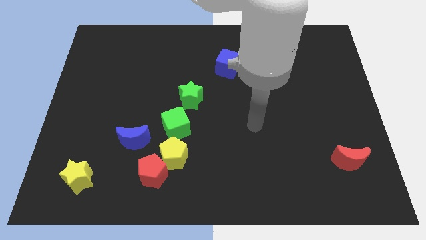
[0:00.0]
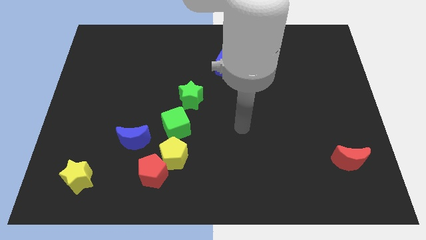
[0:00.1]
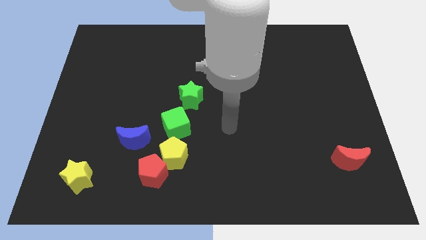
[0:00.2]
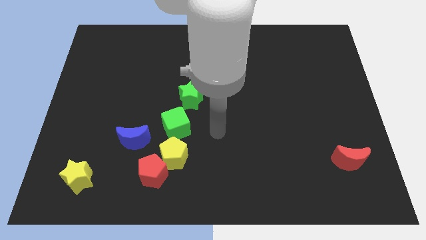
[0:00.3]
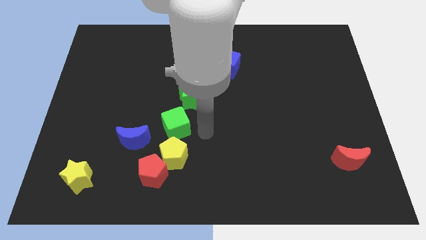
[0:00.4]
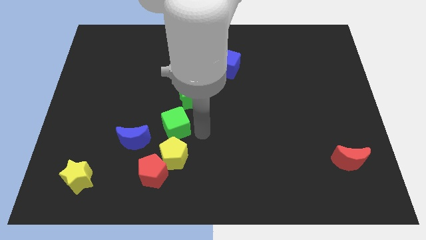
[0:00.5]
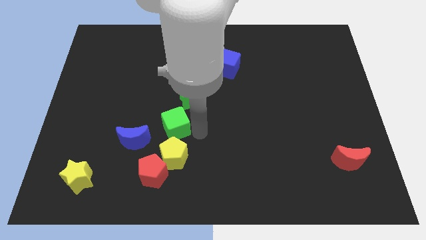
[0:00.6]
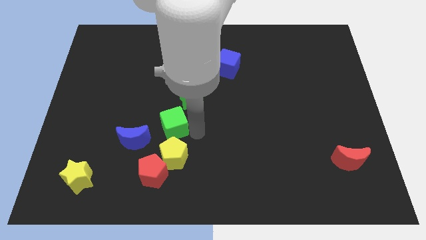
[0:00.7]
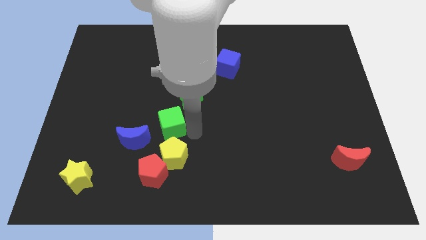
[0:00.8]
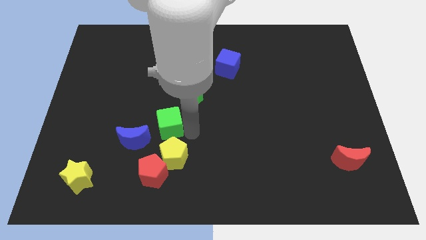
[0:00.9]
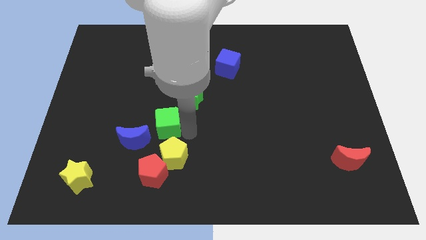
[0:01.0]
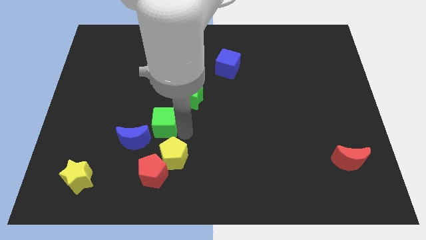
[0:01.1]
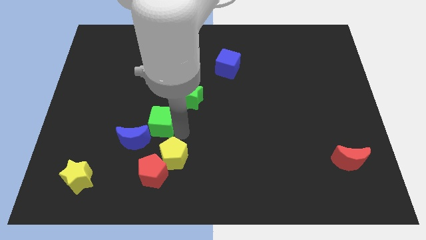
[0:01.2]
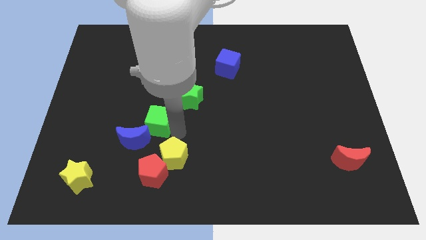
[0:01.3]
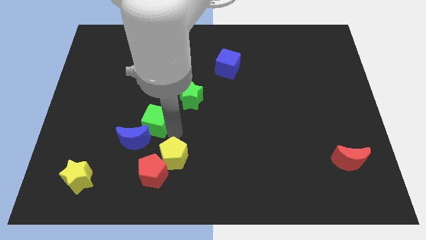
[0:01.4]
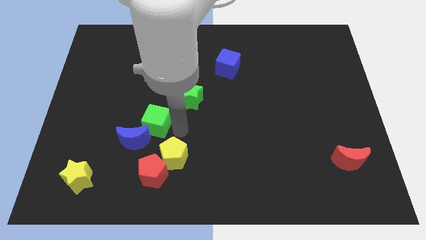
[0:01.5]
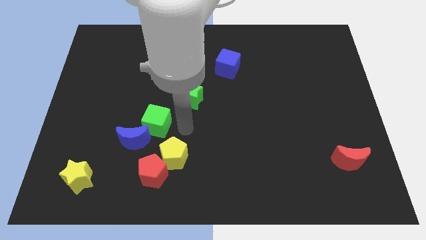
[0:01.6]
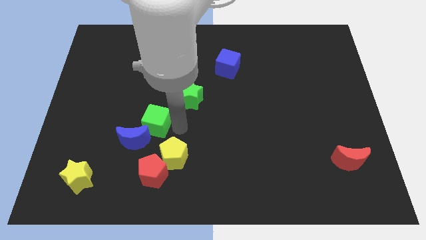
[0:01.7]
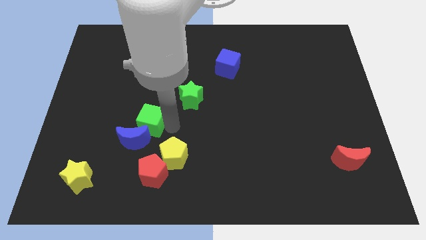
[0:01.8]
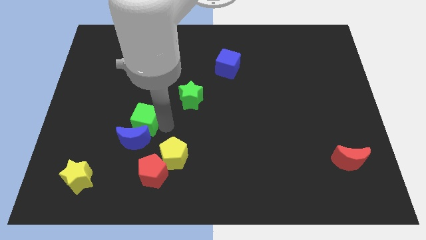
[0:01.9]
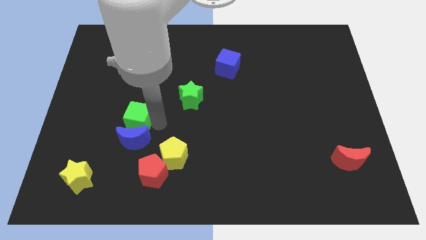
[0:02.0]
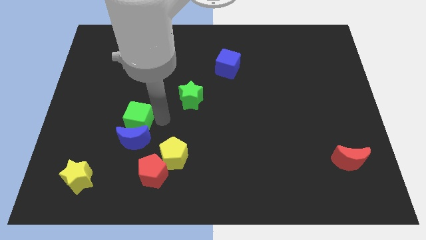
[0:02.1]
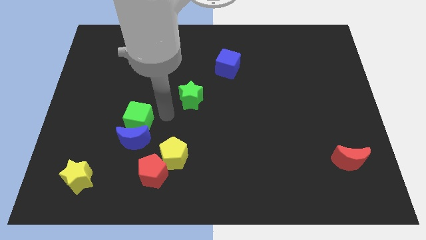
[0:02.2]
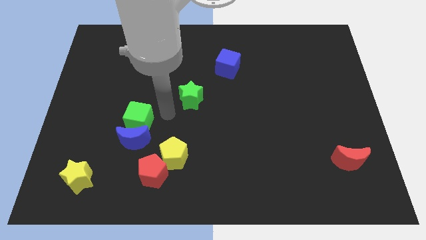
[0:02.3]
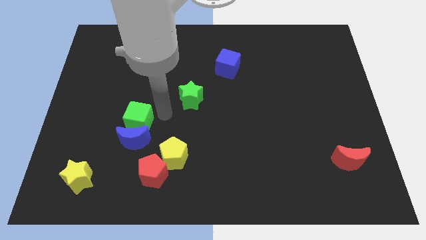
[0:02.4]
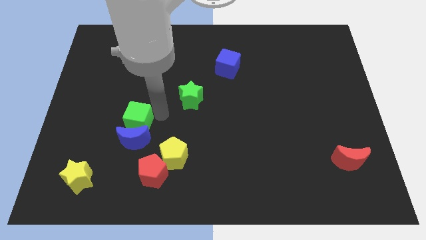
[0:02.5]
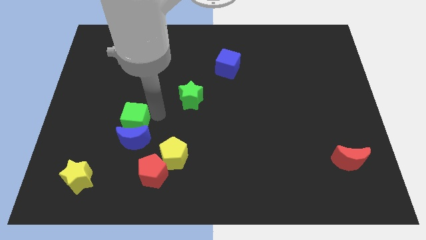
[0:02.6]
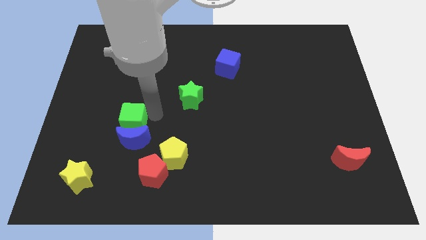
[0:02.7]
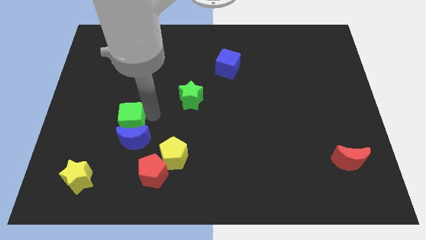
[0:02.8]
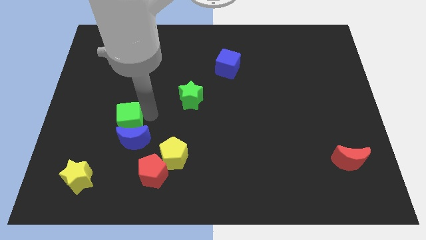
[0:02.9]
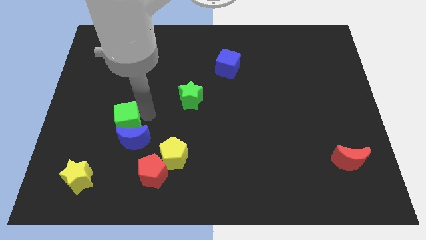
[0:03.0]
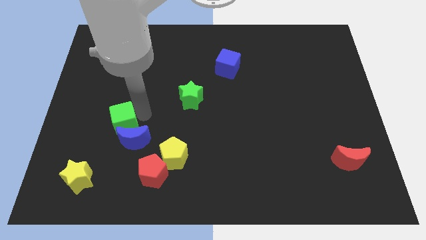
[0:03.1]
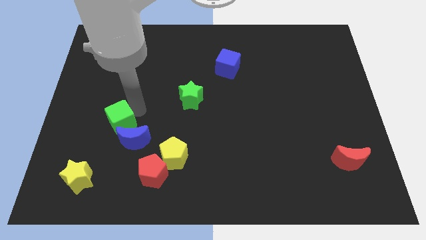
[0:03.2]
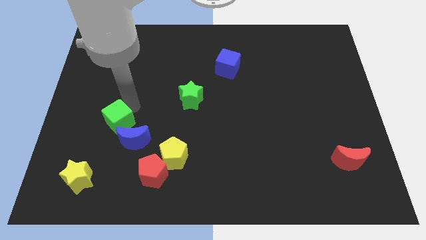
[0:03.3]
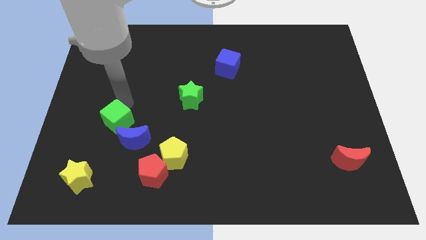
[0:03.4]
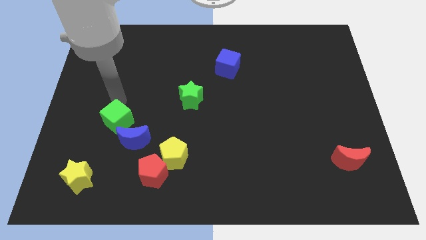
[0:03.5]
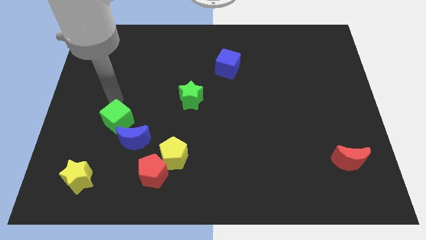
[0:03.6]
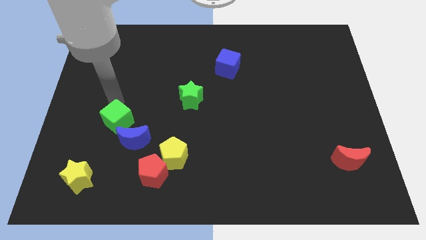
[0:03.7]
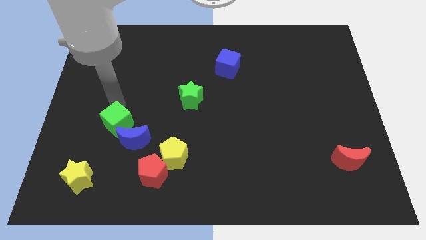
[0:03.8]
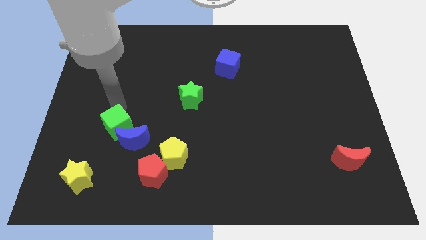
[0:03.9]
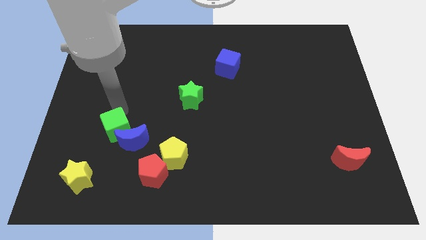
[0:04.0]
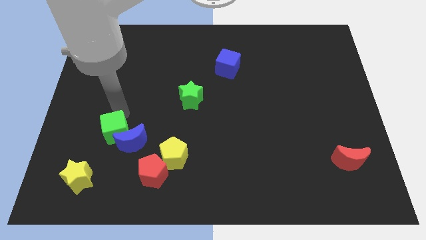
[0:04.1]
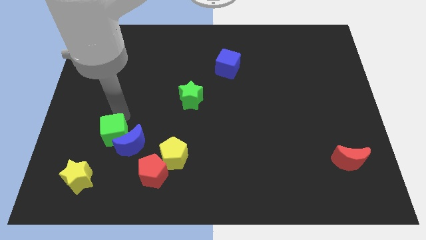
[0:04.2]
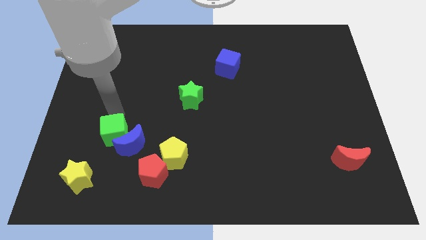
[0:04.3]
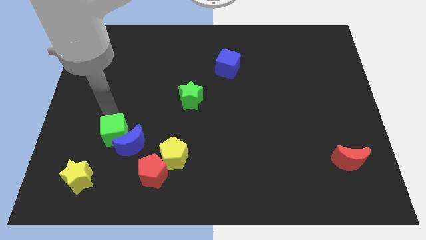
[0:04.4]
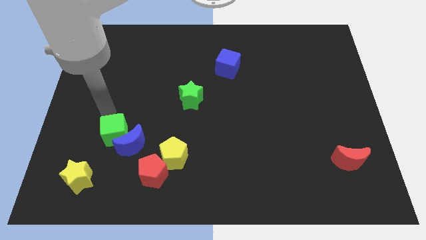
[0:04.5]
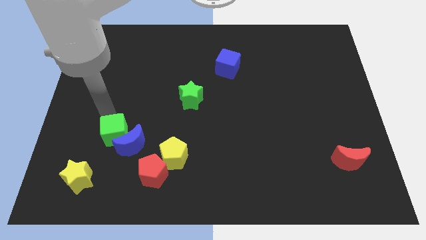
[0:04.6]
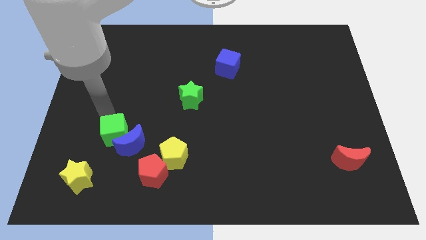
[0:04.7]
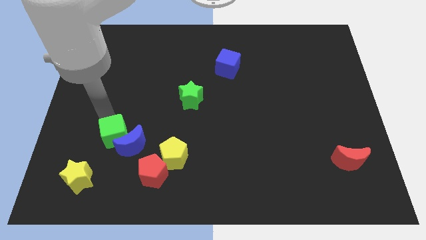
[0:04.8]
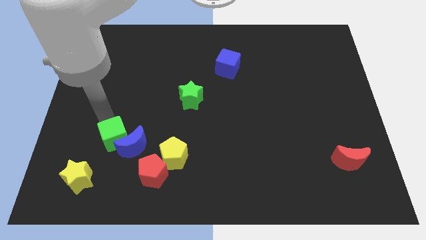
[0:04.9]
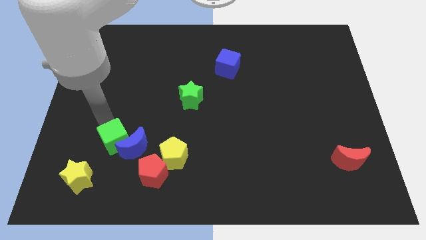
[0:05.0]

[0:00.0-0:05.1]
push the green cube left of the yellow pentagon

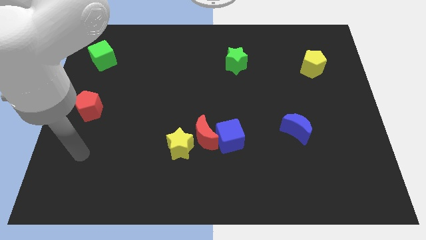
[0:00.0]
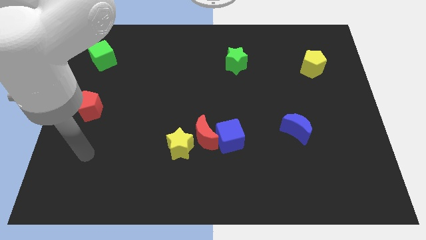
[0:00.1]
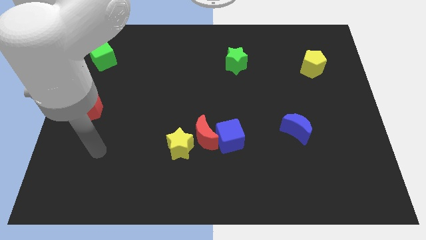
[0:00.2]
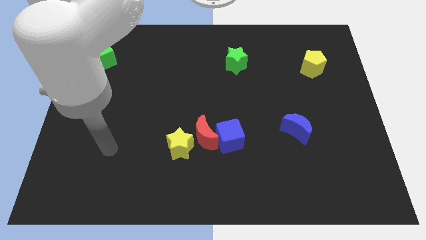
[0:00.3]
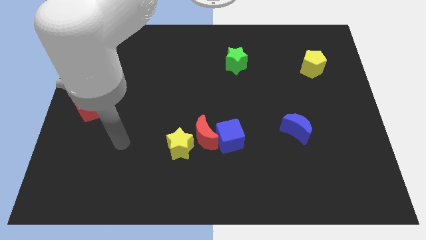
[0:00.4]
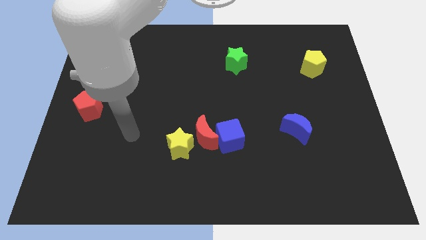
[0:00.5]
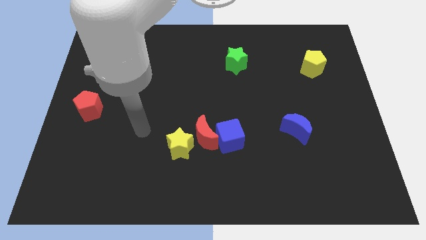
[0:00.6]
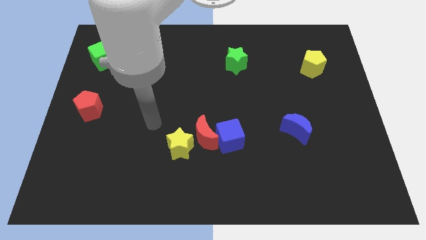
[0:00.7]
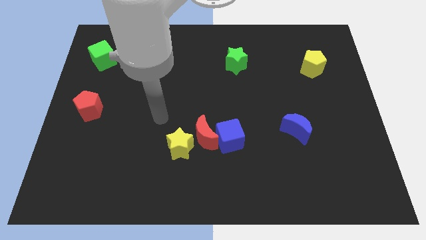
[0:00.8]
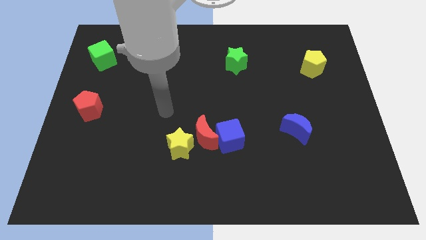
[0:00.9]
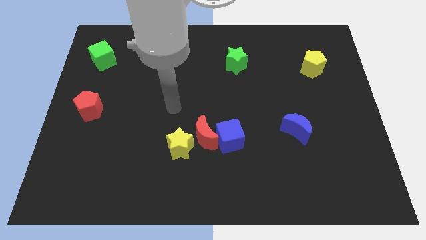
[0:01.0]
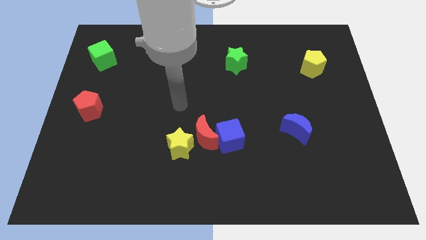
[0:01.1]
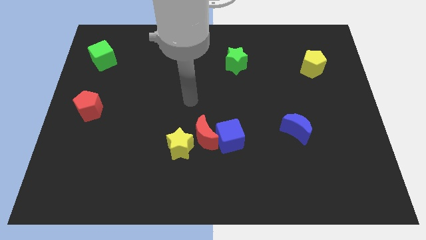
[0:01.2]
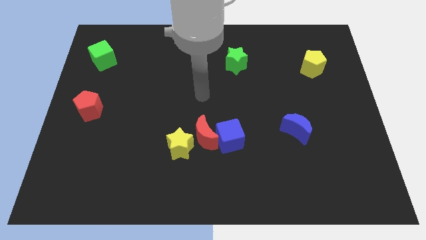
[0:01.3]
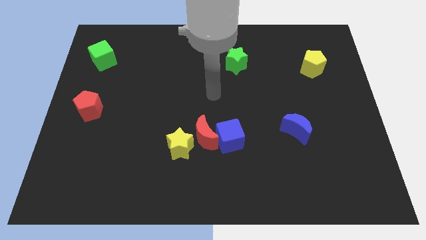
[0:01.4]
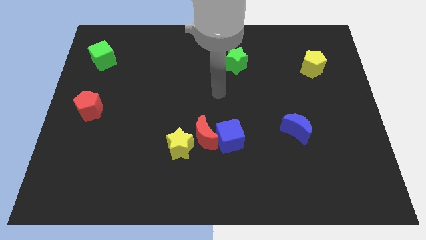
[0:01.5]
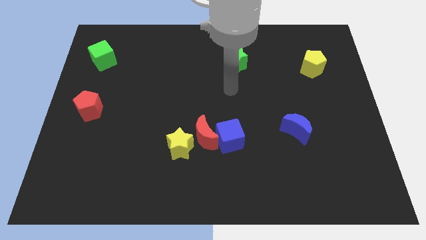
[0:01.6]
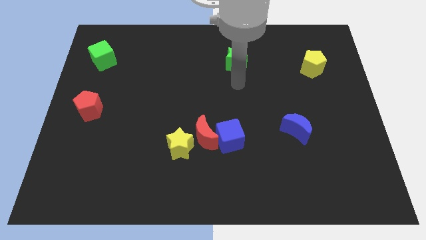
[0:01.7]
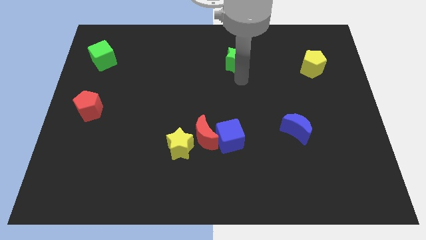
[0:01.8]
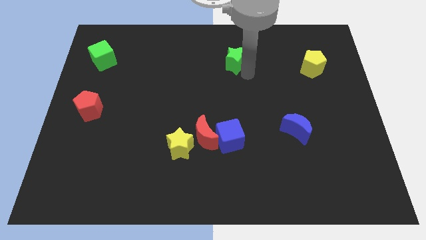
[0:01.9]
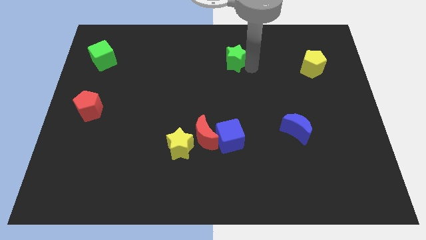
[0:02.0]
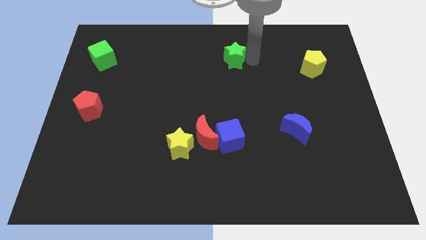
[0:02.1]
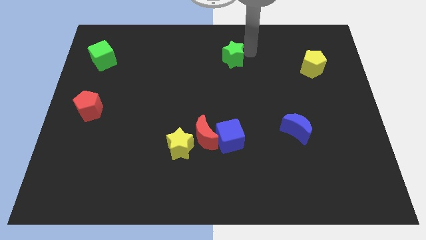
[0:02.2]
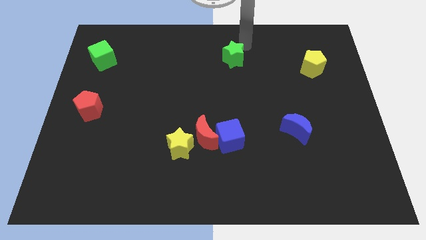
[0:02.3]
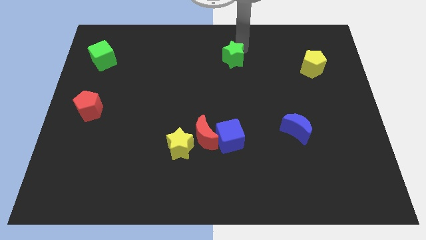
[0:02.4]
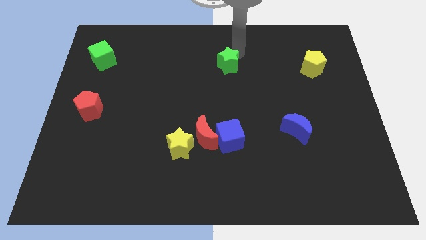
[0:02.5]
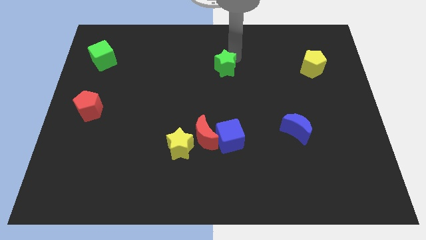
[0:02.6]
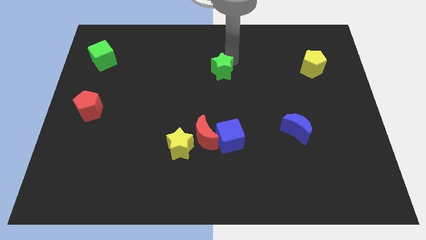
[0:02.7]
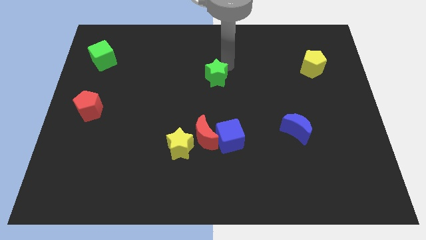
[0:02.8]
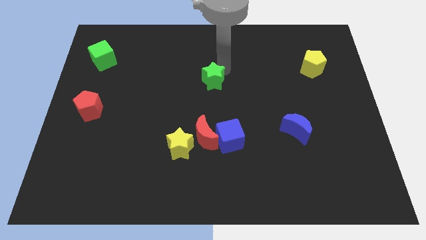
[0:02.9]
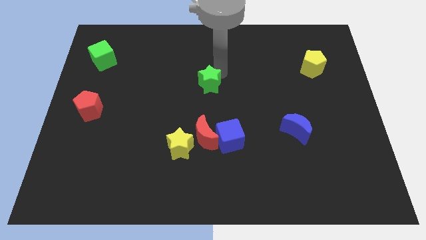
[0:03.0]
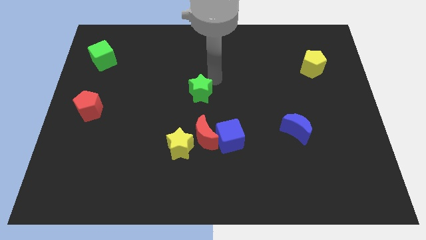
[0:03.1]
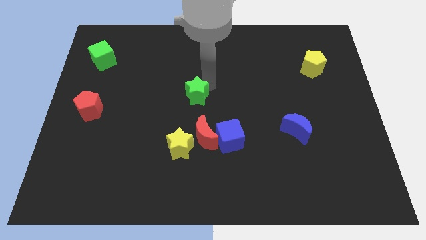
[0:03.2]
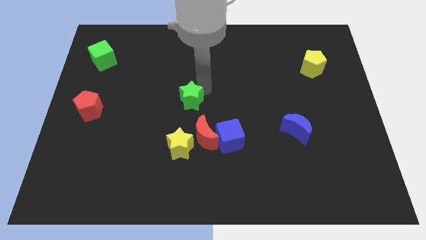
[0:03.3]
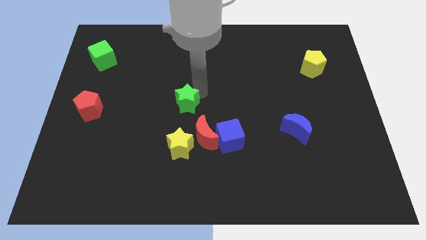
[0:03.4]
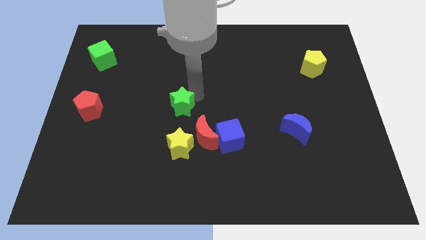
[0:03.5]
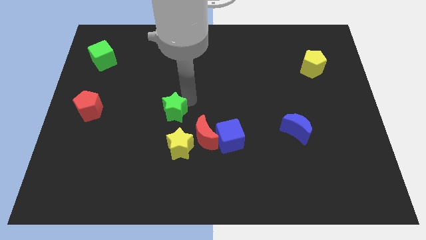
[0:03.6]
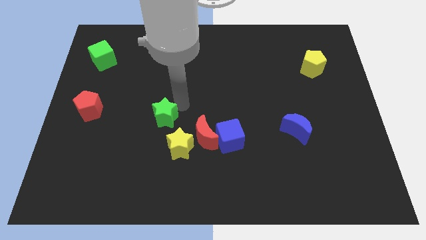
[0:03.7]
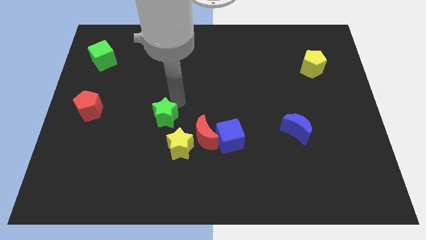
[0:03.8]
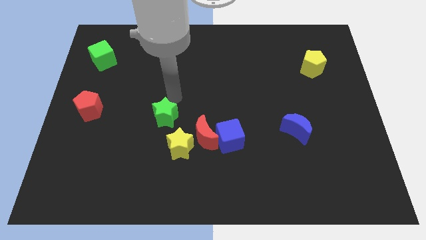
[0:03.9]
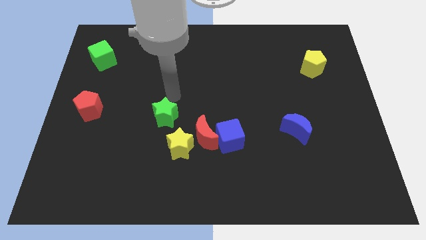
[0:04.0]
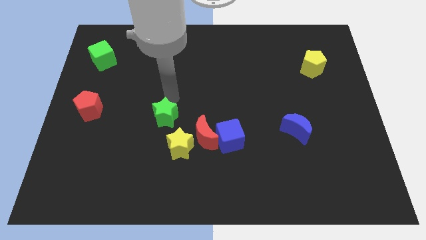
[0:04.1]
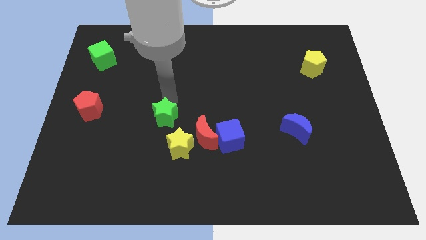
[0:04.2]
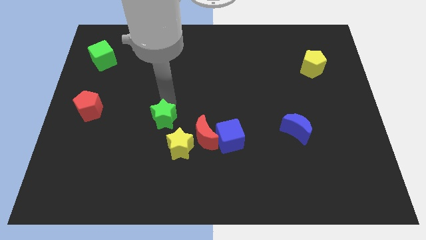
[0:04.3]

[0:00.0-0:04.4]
slide the green star to the left side of the red moon
